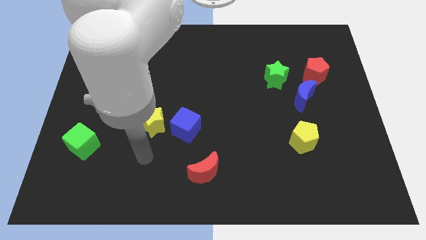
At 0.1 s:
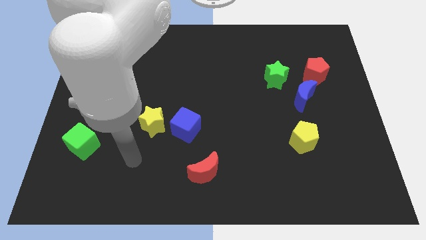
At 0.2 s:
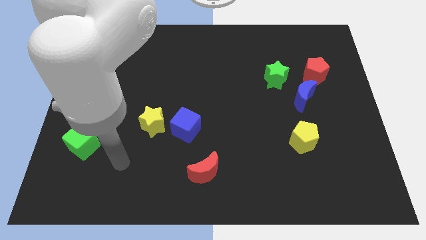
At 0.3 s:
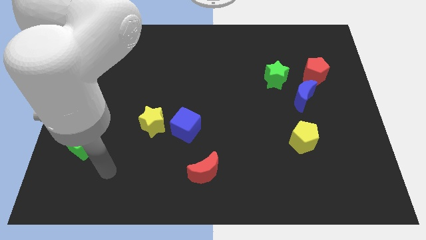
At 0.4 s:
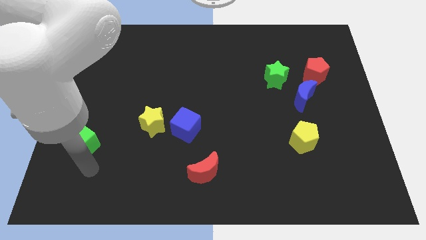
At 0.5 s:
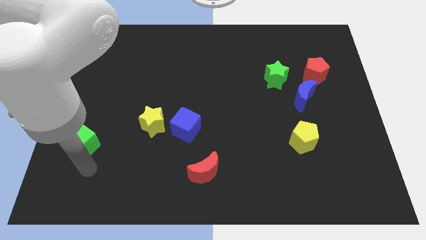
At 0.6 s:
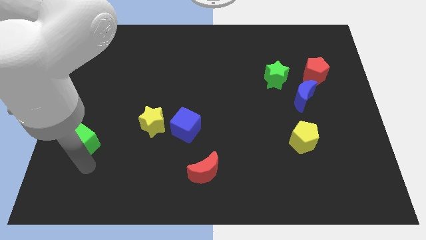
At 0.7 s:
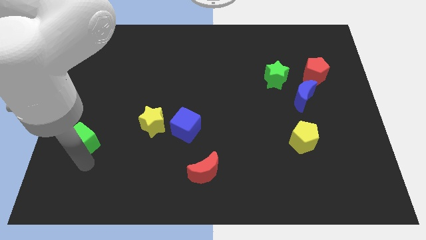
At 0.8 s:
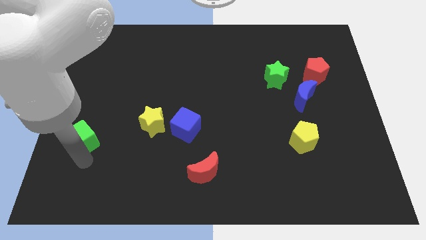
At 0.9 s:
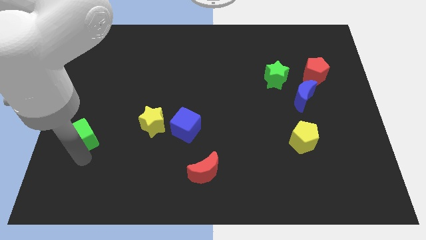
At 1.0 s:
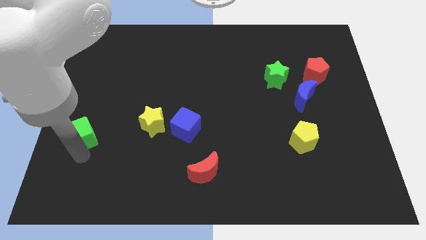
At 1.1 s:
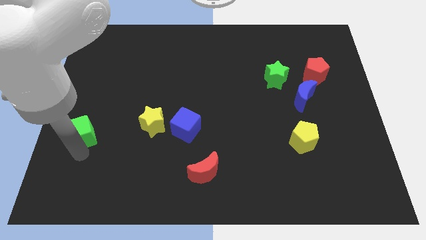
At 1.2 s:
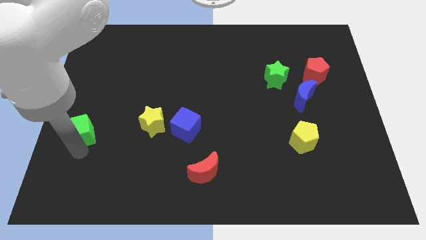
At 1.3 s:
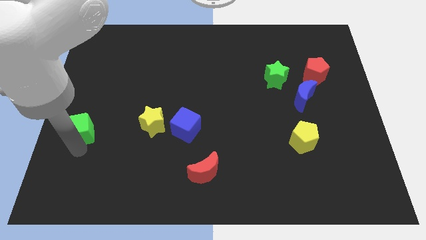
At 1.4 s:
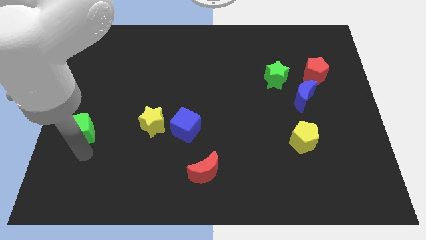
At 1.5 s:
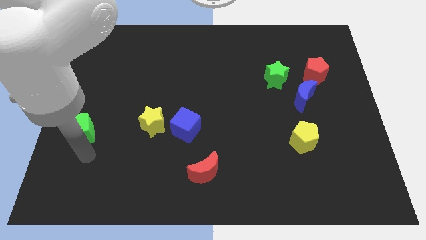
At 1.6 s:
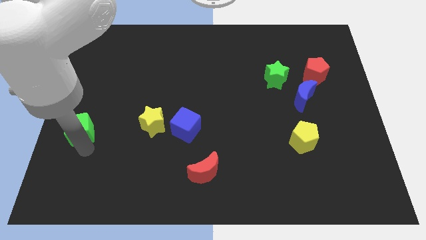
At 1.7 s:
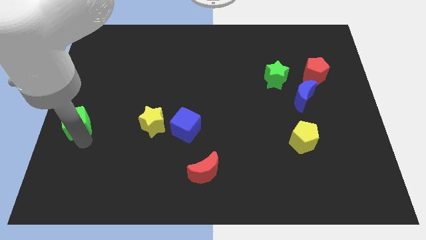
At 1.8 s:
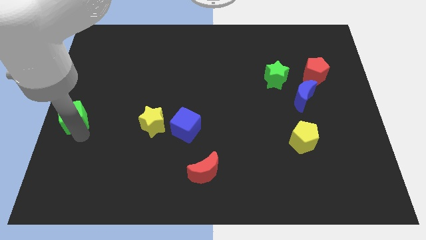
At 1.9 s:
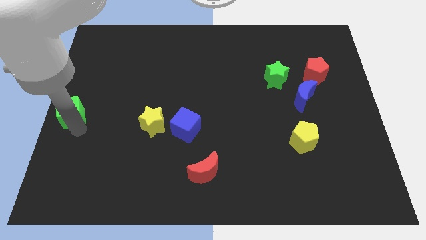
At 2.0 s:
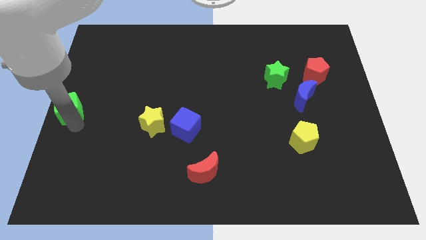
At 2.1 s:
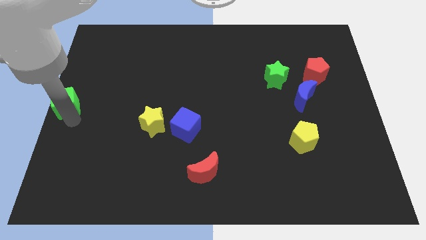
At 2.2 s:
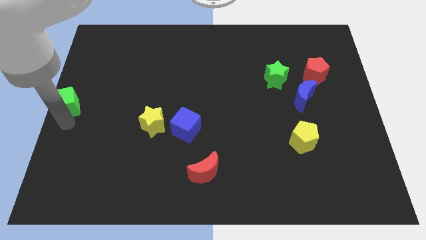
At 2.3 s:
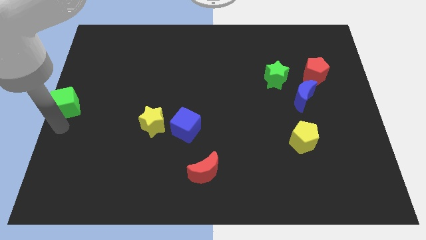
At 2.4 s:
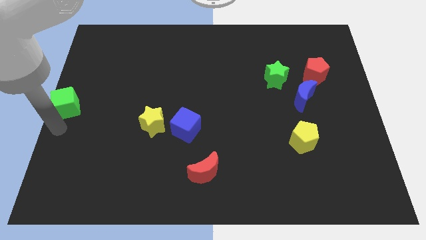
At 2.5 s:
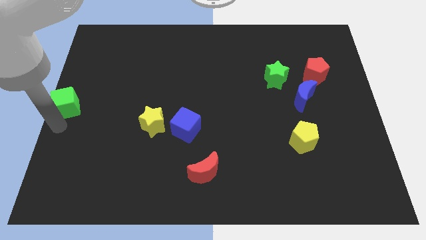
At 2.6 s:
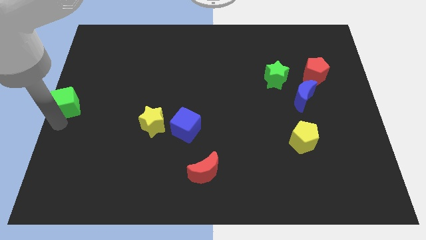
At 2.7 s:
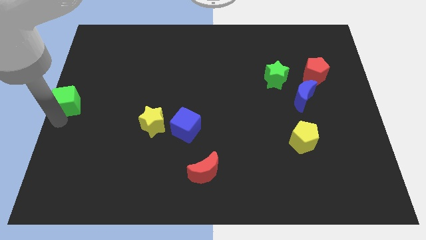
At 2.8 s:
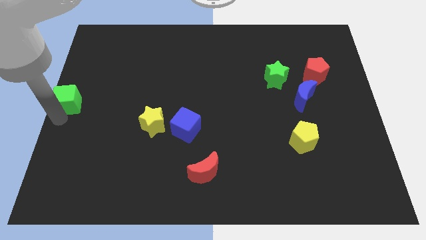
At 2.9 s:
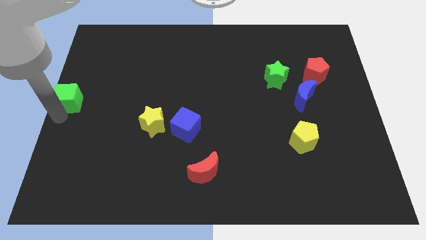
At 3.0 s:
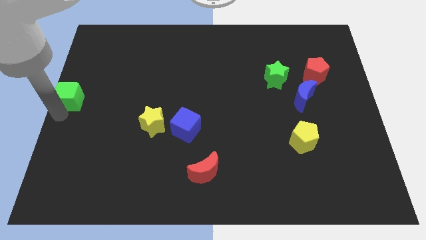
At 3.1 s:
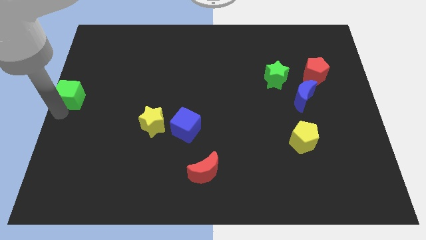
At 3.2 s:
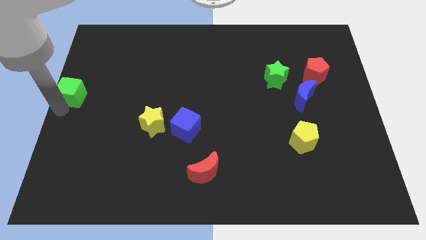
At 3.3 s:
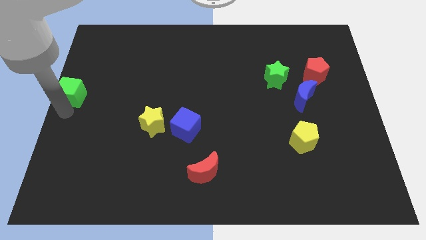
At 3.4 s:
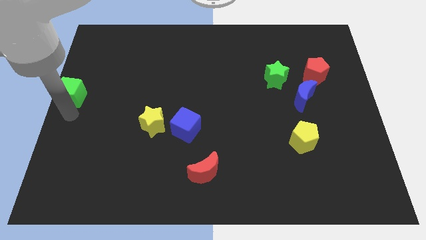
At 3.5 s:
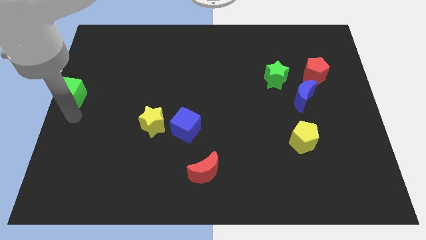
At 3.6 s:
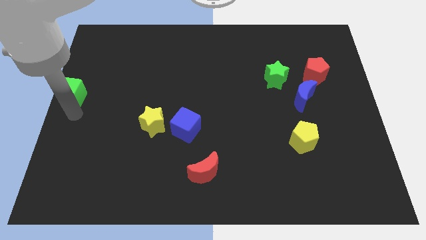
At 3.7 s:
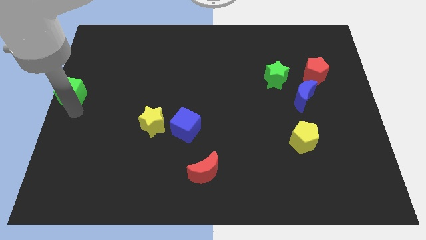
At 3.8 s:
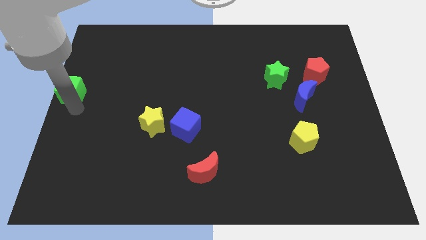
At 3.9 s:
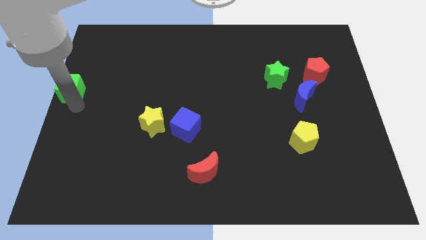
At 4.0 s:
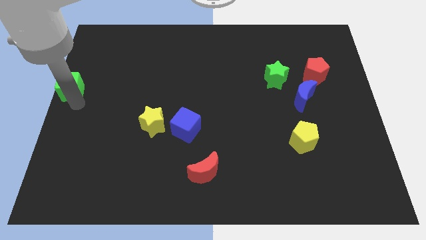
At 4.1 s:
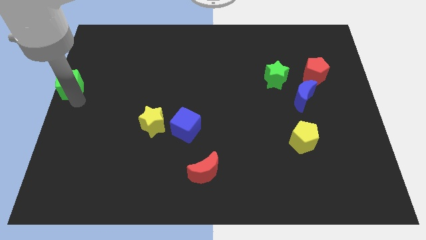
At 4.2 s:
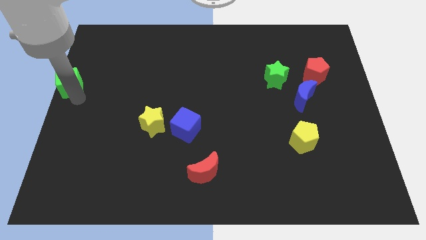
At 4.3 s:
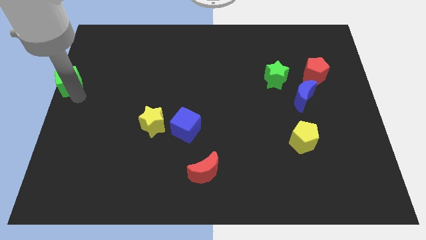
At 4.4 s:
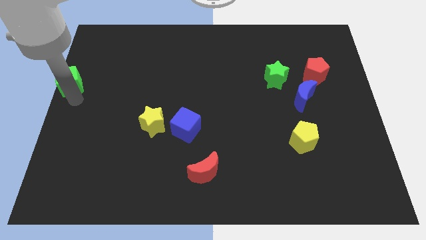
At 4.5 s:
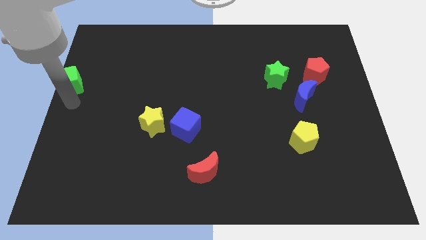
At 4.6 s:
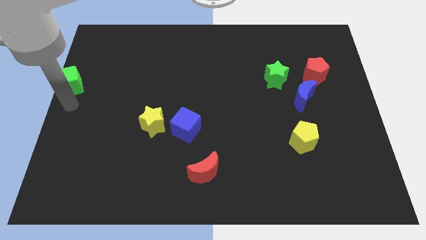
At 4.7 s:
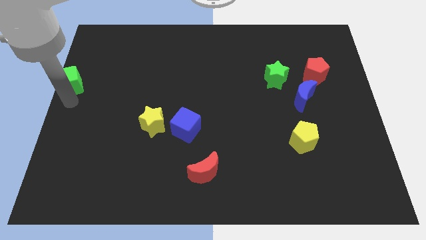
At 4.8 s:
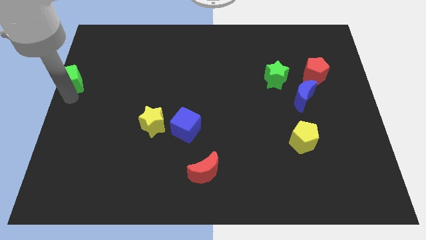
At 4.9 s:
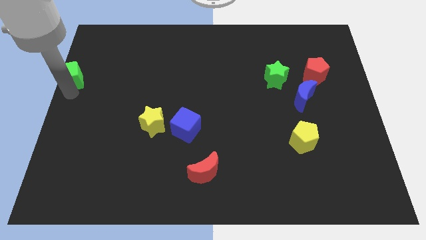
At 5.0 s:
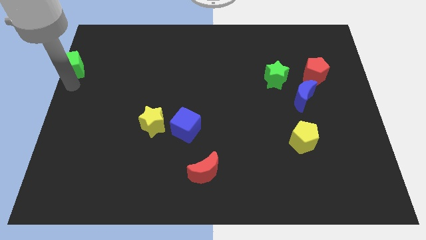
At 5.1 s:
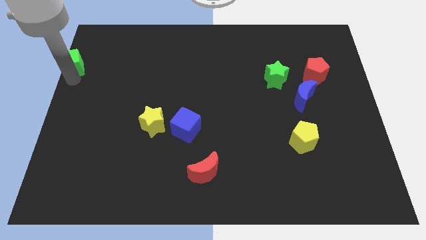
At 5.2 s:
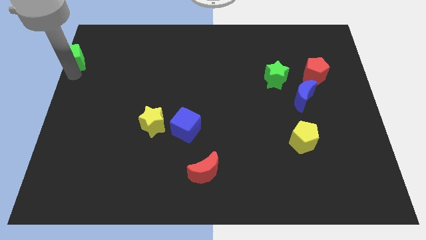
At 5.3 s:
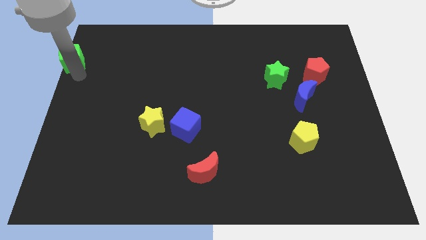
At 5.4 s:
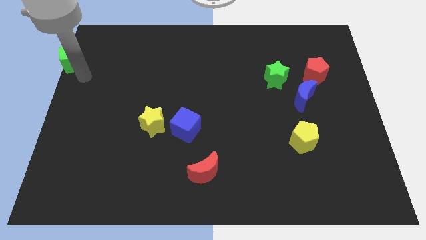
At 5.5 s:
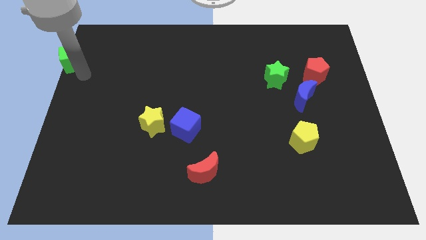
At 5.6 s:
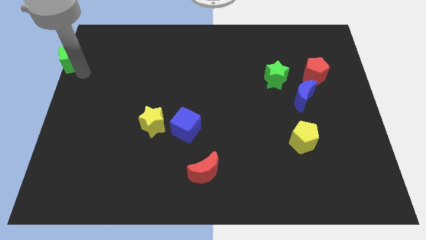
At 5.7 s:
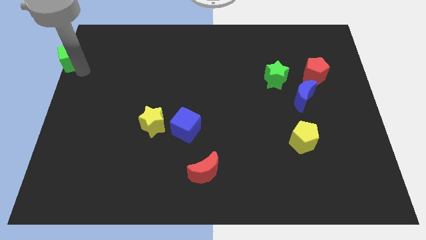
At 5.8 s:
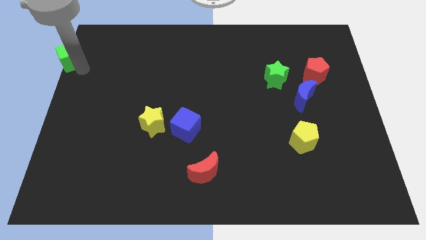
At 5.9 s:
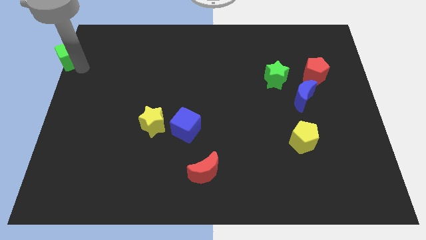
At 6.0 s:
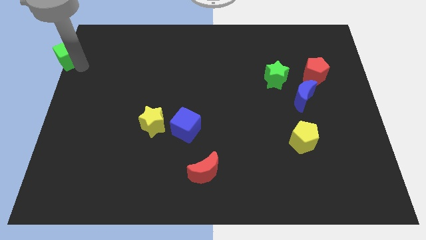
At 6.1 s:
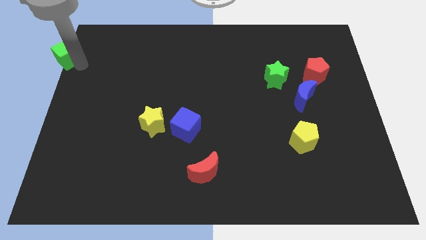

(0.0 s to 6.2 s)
slide the green cube to the top left corner
